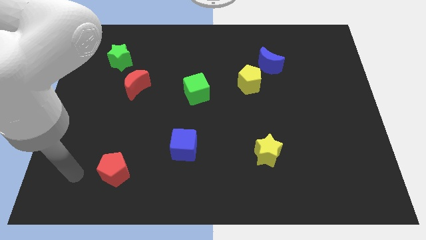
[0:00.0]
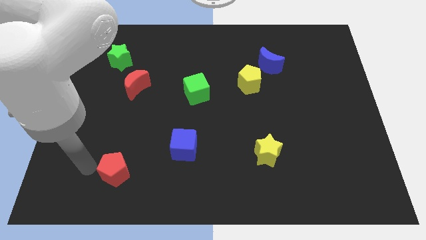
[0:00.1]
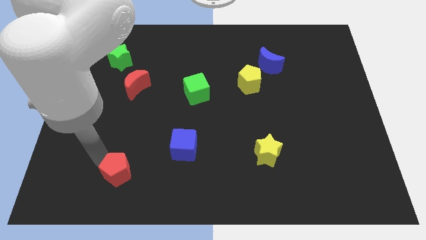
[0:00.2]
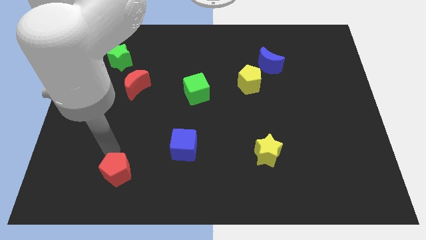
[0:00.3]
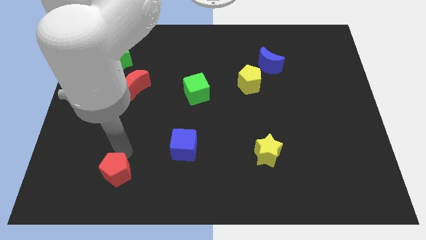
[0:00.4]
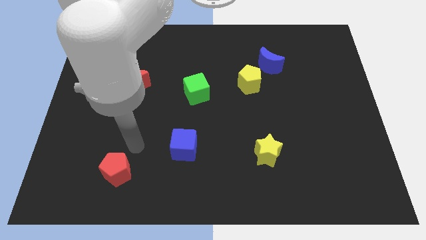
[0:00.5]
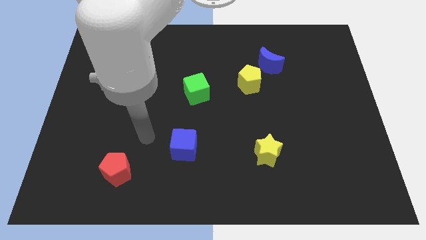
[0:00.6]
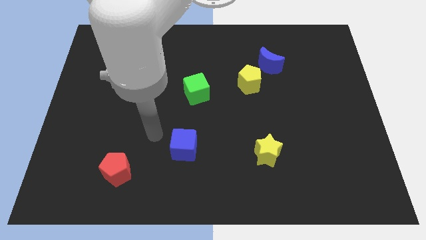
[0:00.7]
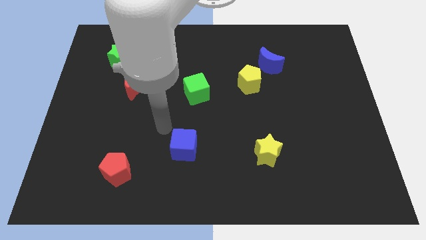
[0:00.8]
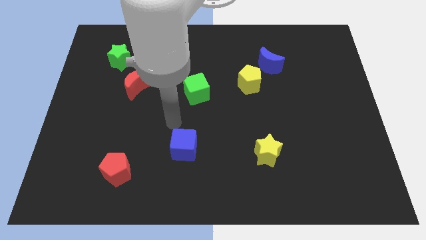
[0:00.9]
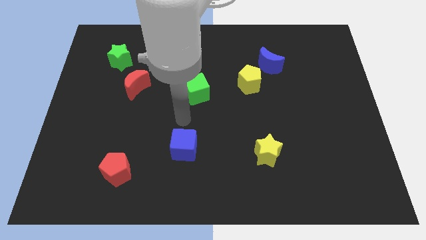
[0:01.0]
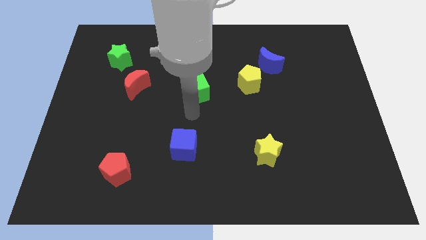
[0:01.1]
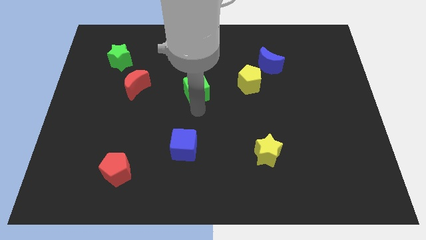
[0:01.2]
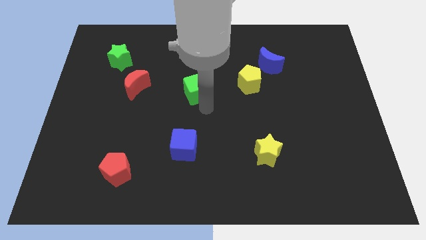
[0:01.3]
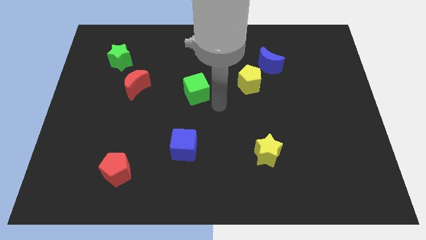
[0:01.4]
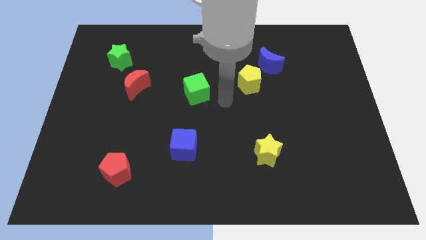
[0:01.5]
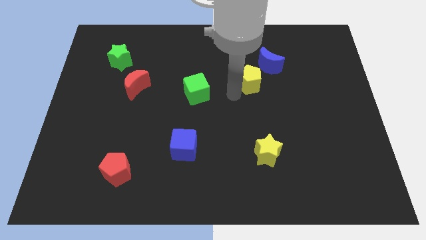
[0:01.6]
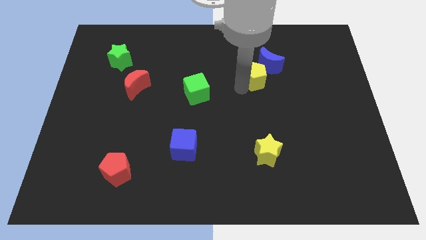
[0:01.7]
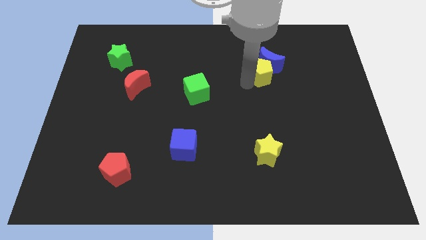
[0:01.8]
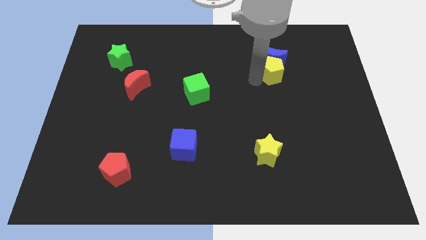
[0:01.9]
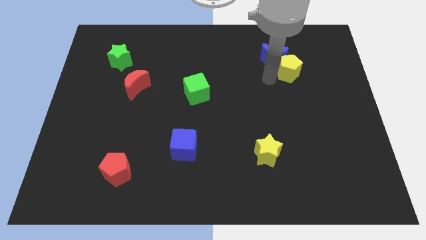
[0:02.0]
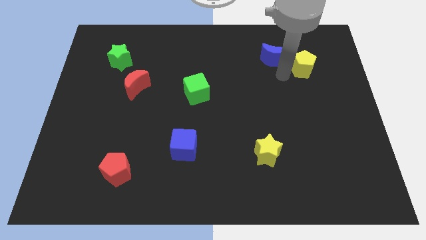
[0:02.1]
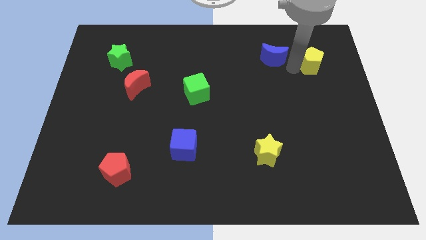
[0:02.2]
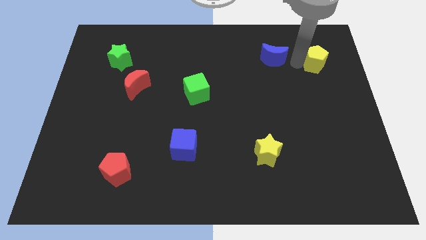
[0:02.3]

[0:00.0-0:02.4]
separate the blue moon from the yellow pentagon

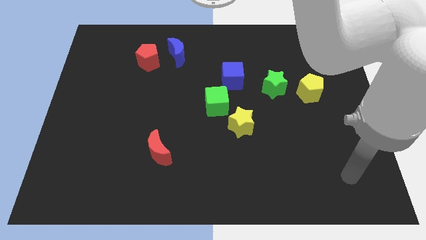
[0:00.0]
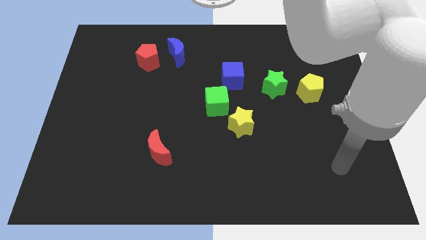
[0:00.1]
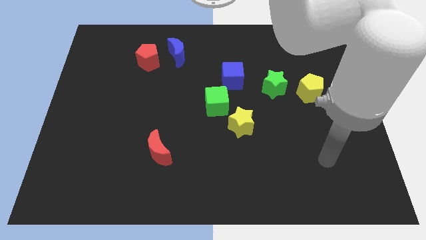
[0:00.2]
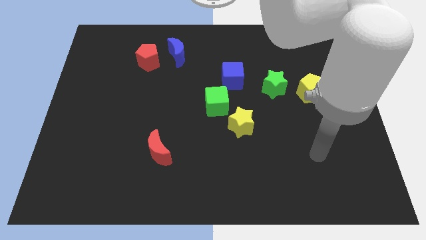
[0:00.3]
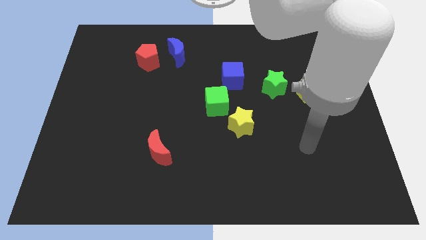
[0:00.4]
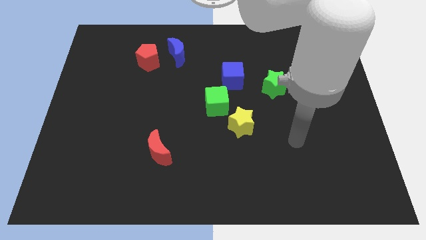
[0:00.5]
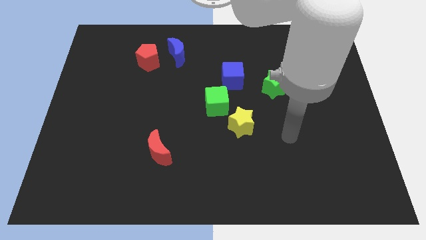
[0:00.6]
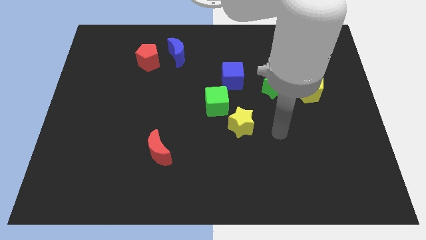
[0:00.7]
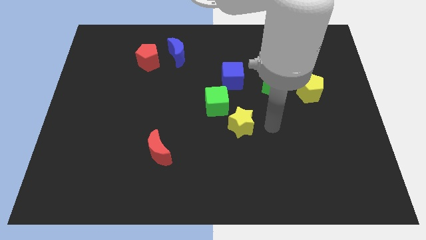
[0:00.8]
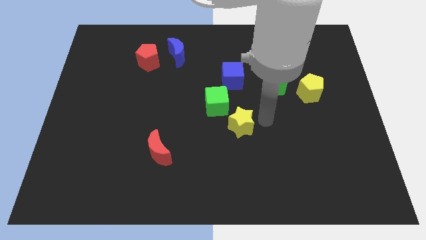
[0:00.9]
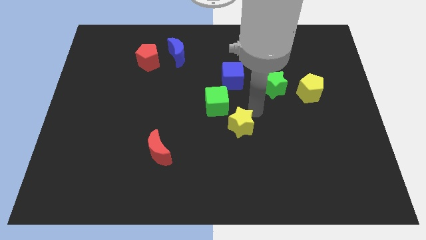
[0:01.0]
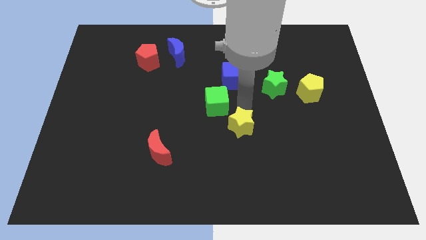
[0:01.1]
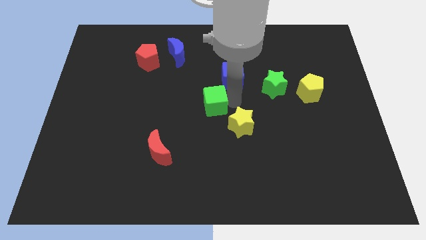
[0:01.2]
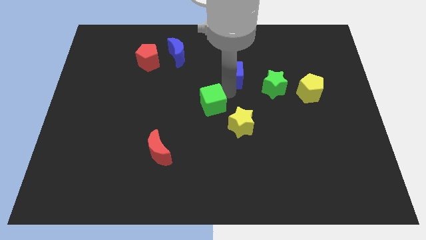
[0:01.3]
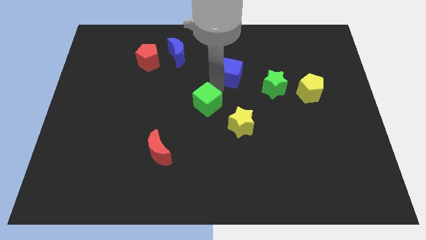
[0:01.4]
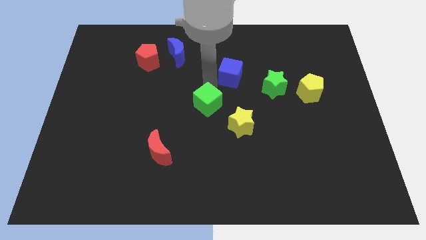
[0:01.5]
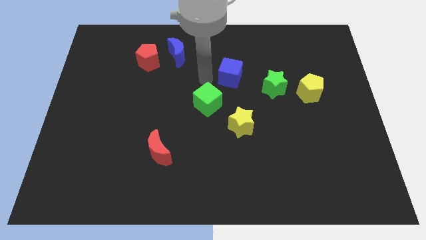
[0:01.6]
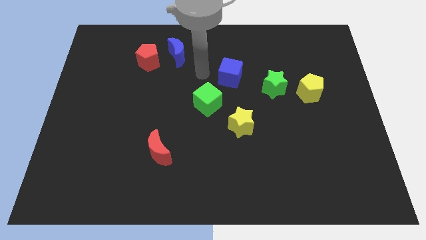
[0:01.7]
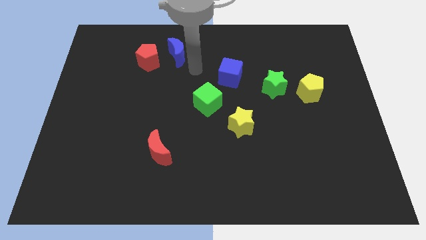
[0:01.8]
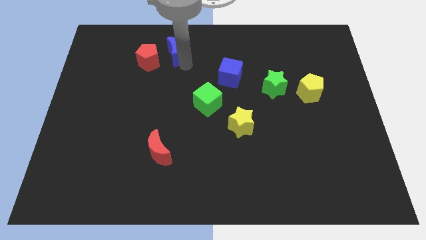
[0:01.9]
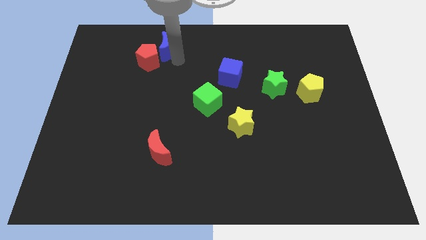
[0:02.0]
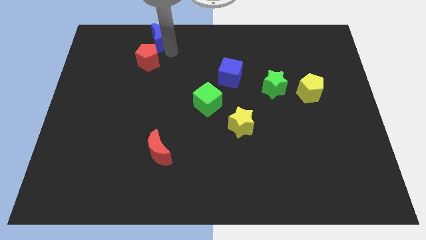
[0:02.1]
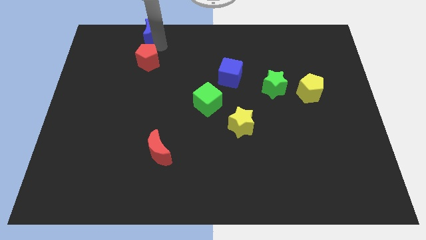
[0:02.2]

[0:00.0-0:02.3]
pull the red pentagon apart from the blue moon

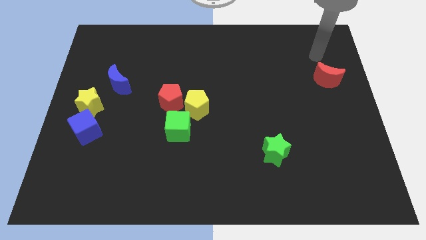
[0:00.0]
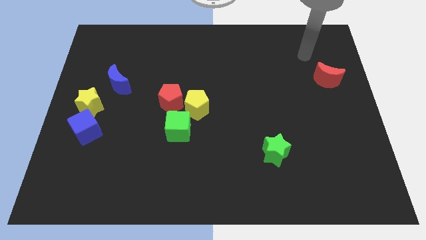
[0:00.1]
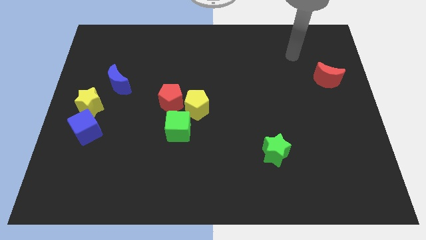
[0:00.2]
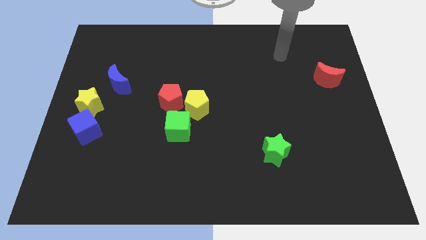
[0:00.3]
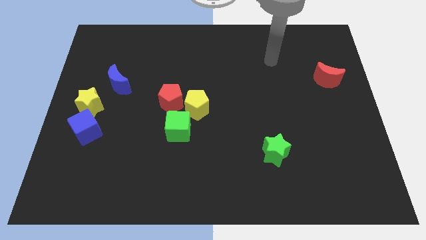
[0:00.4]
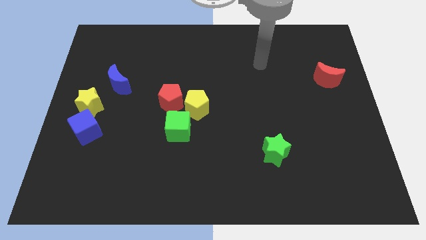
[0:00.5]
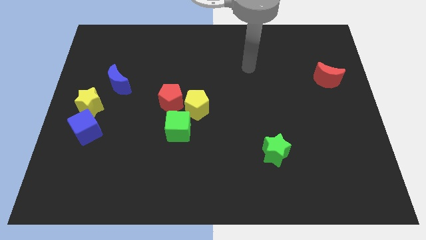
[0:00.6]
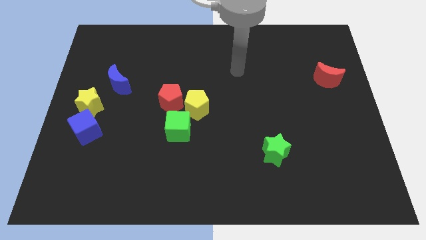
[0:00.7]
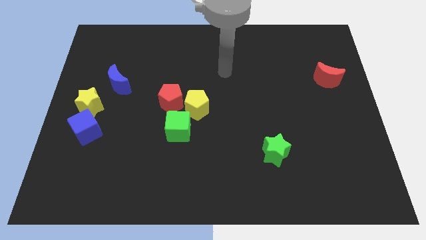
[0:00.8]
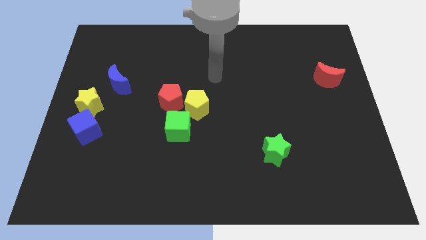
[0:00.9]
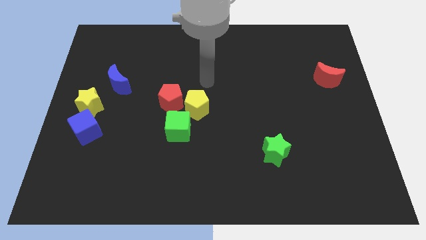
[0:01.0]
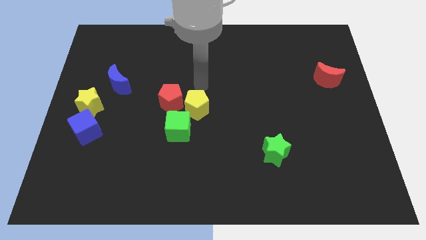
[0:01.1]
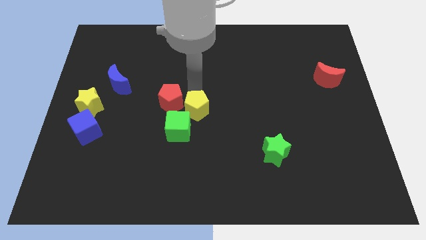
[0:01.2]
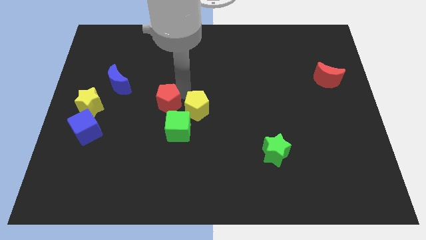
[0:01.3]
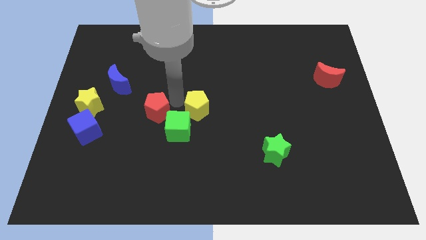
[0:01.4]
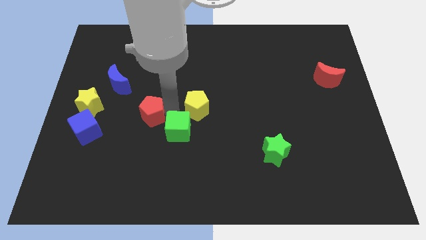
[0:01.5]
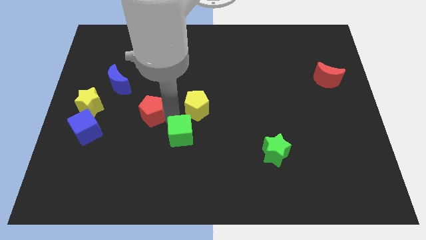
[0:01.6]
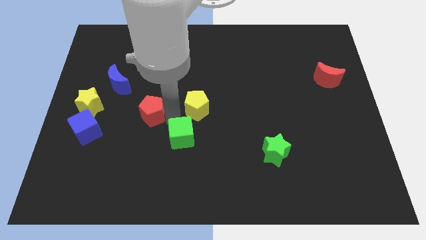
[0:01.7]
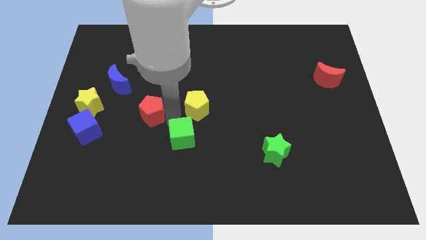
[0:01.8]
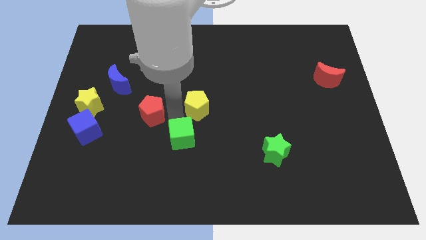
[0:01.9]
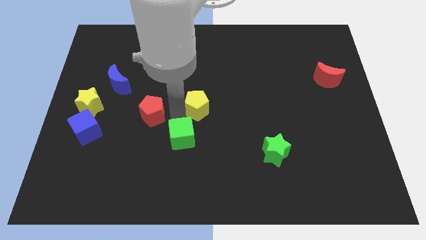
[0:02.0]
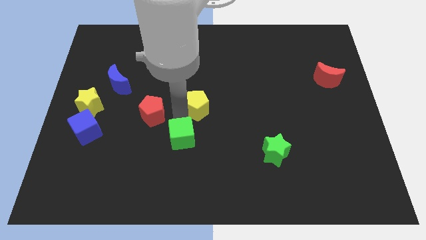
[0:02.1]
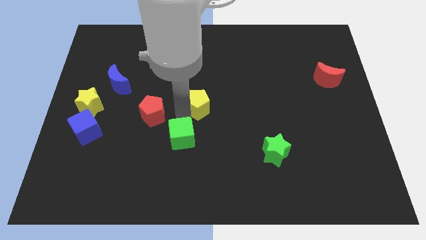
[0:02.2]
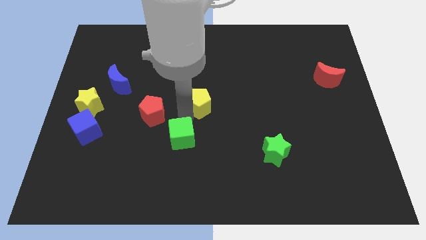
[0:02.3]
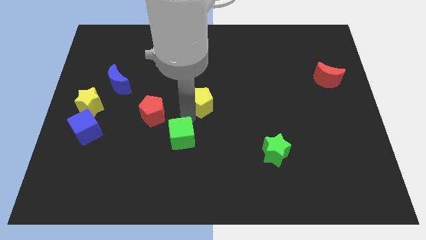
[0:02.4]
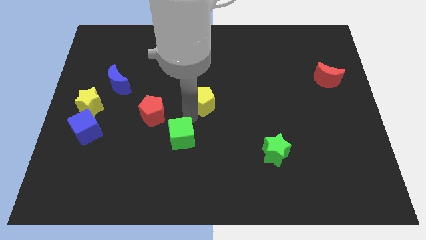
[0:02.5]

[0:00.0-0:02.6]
separate the yellow pentagon from the red pentagon and green cube

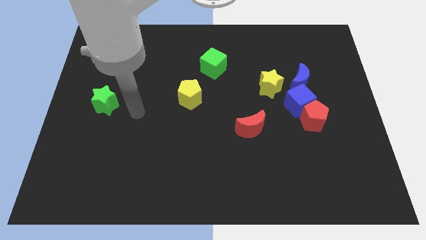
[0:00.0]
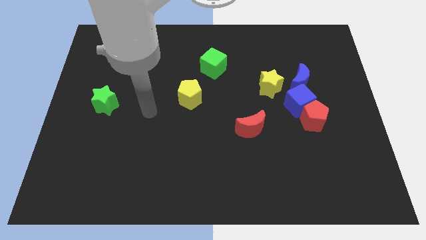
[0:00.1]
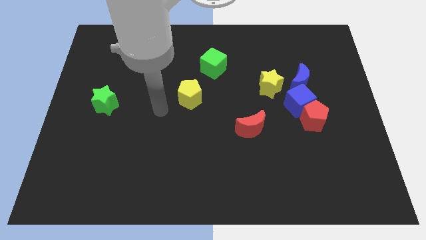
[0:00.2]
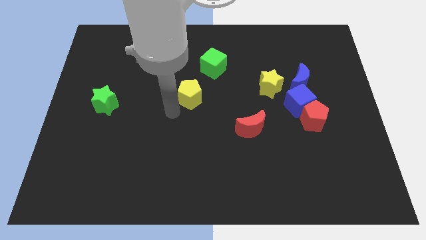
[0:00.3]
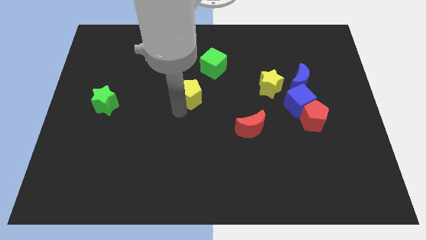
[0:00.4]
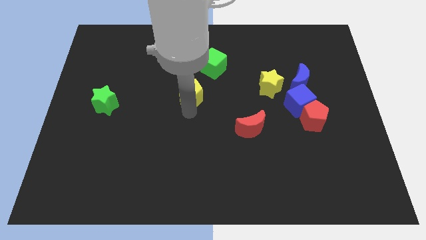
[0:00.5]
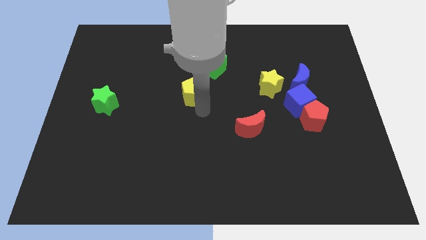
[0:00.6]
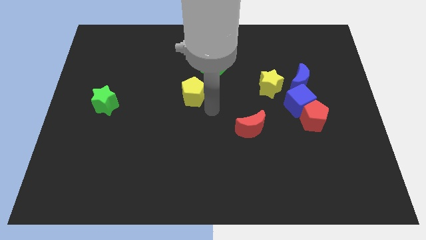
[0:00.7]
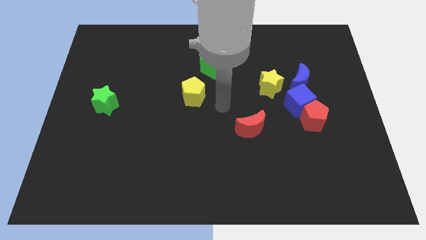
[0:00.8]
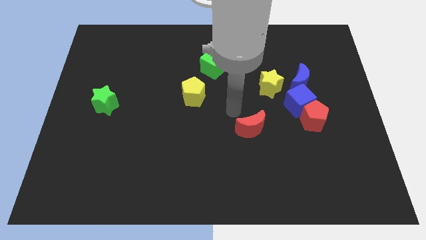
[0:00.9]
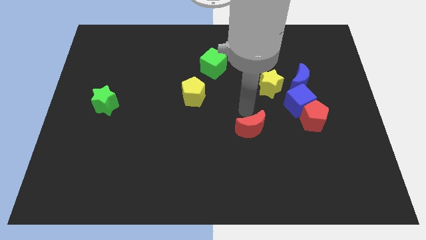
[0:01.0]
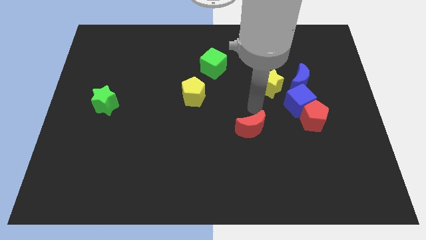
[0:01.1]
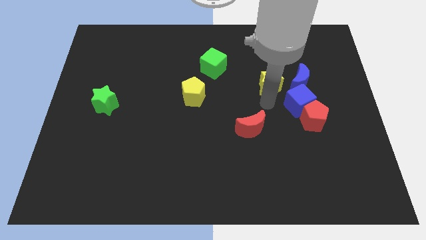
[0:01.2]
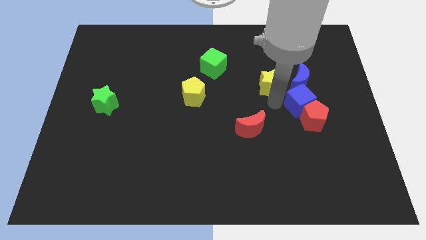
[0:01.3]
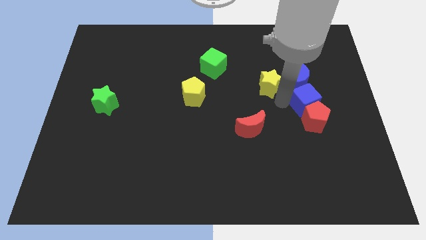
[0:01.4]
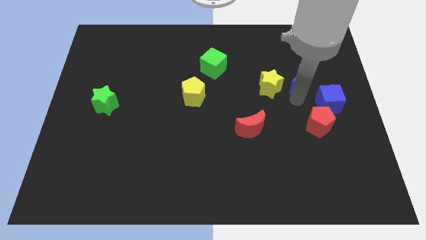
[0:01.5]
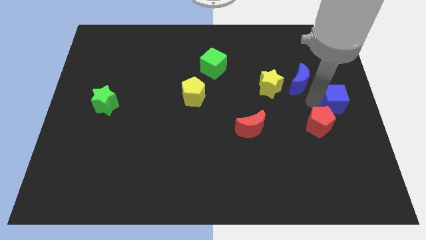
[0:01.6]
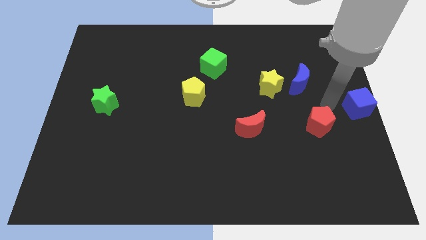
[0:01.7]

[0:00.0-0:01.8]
pull the red pentagon apart from the blue cube

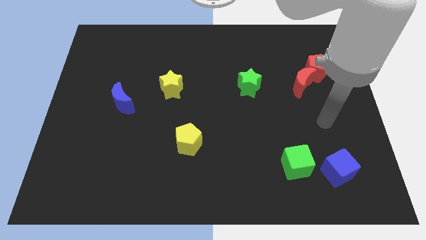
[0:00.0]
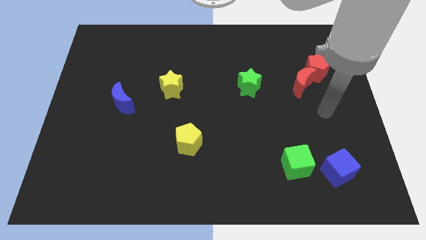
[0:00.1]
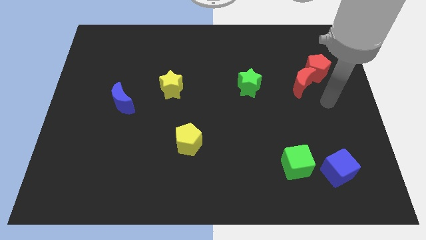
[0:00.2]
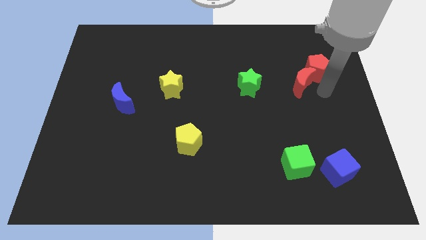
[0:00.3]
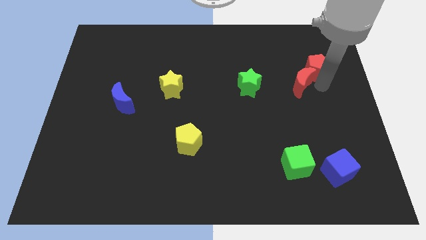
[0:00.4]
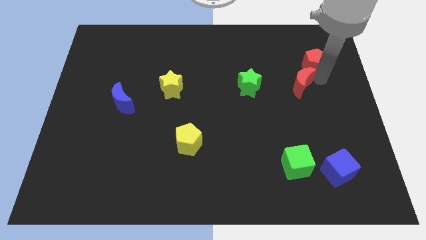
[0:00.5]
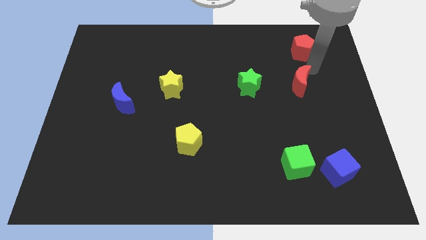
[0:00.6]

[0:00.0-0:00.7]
separate the red moon from the red pentagon
